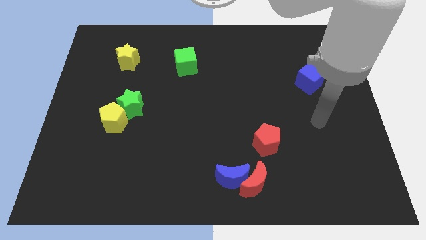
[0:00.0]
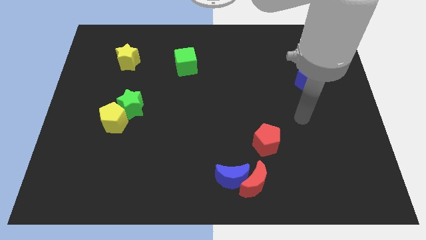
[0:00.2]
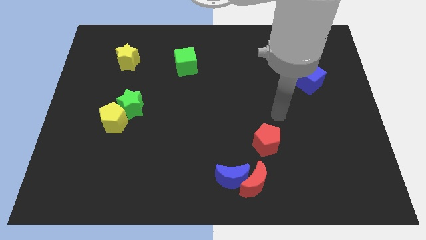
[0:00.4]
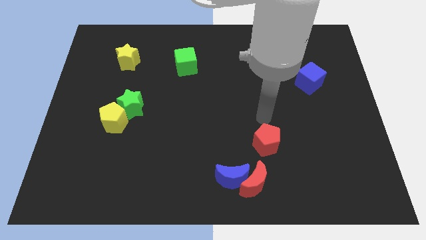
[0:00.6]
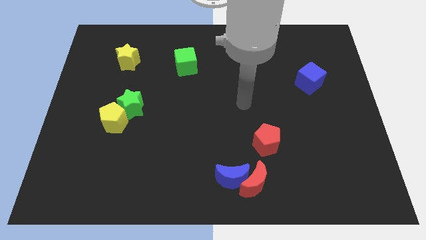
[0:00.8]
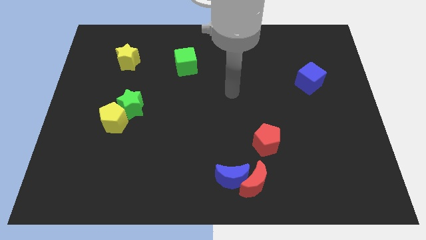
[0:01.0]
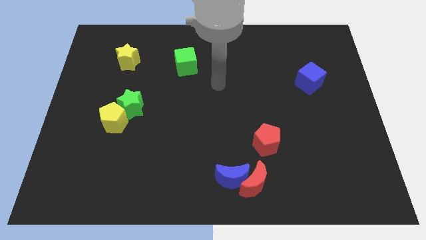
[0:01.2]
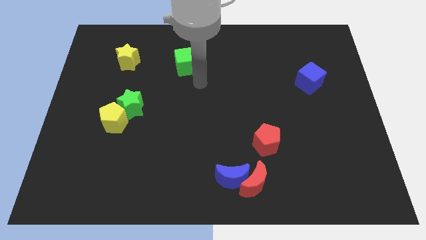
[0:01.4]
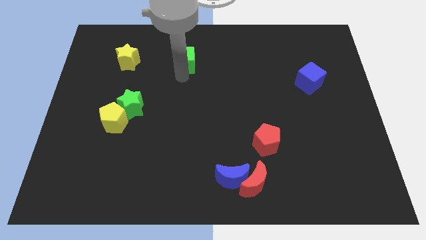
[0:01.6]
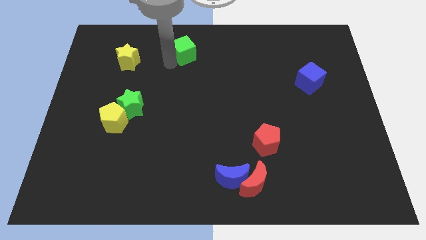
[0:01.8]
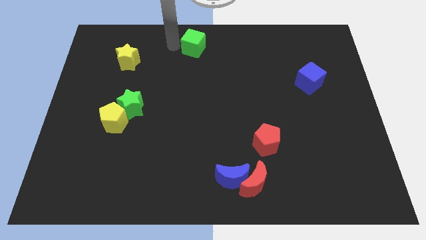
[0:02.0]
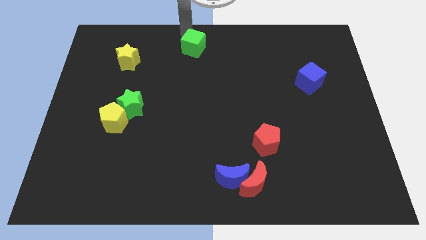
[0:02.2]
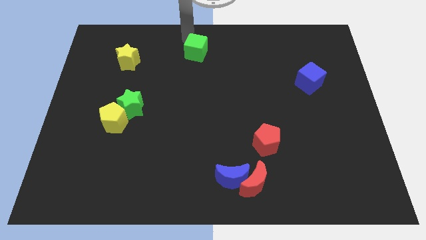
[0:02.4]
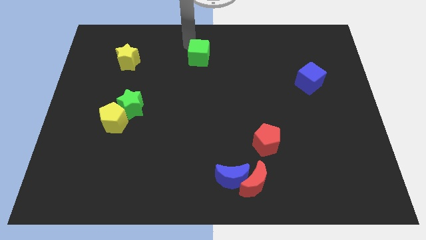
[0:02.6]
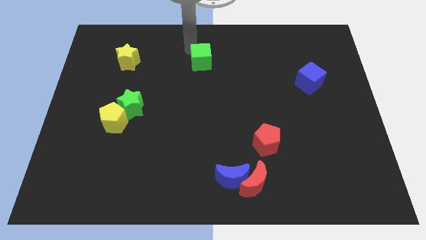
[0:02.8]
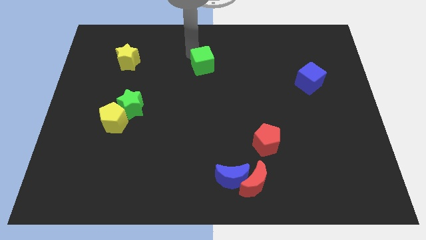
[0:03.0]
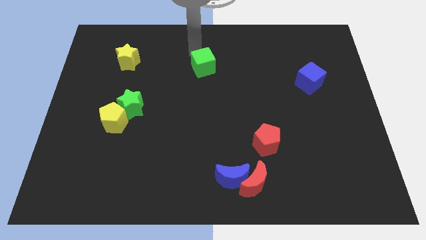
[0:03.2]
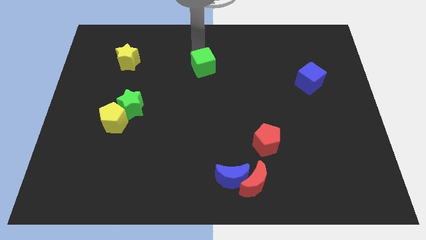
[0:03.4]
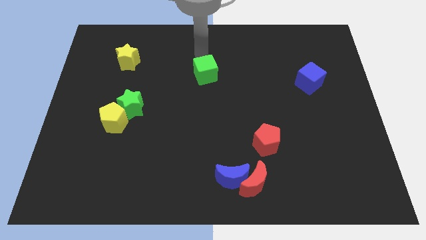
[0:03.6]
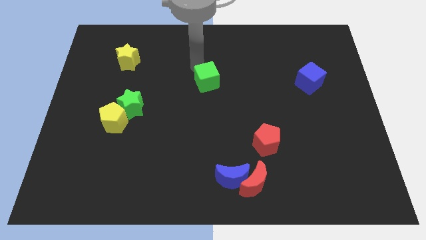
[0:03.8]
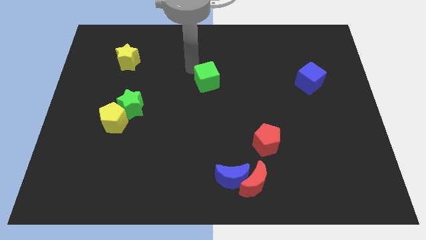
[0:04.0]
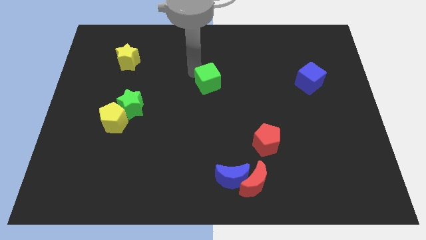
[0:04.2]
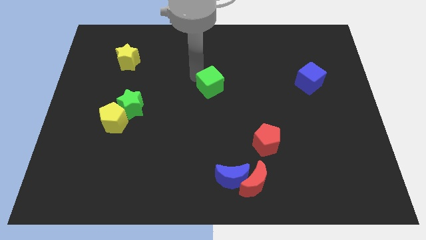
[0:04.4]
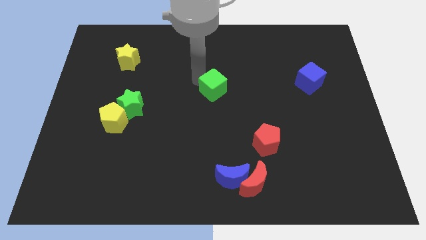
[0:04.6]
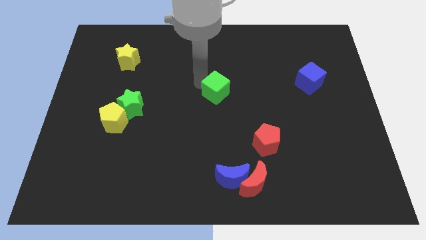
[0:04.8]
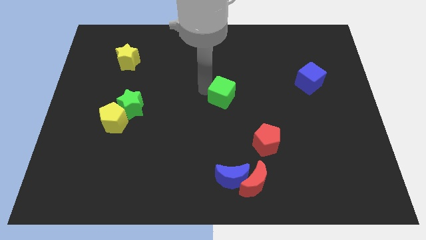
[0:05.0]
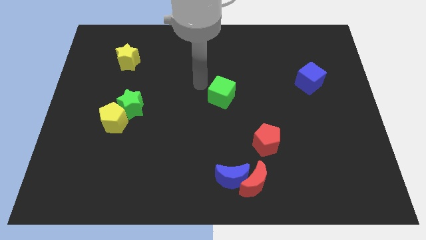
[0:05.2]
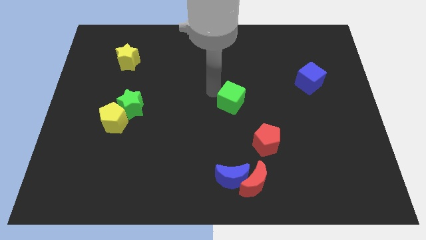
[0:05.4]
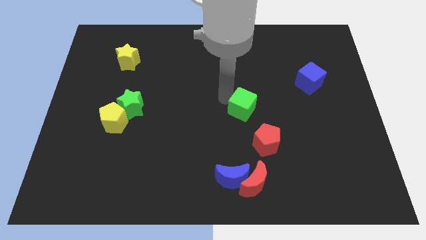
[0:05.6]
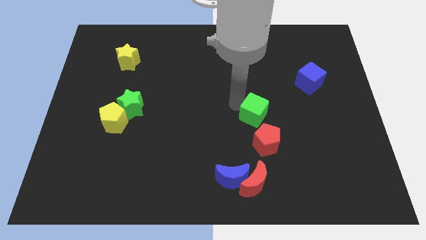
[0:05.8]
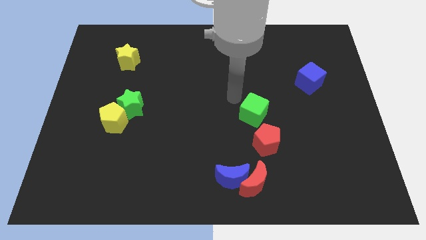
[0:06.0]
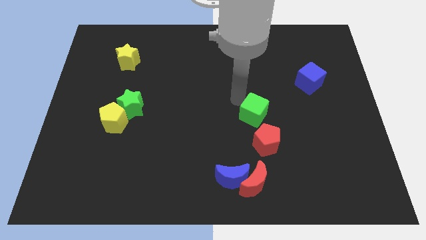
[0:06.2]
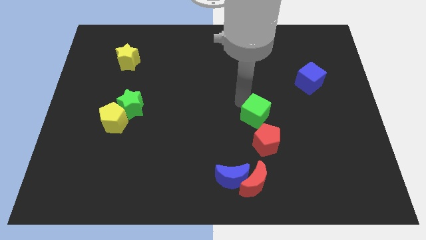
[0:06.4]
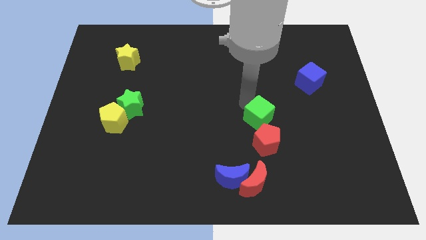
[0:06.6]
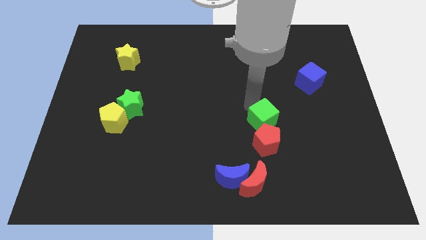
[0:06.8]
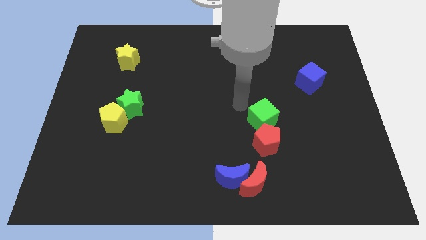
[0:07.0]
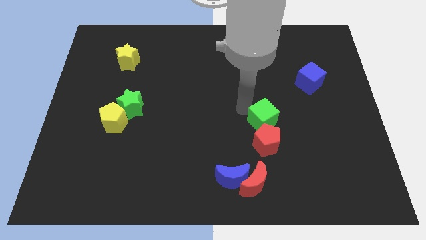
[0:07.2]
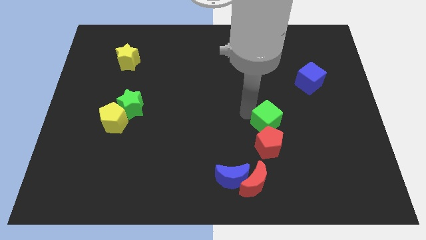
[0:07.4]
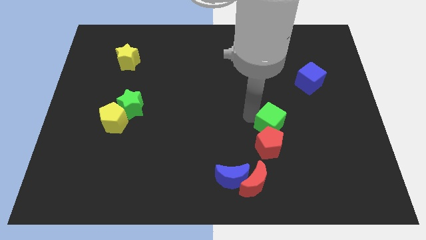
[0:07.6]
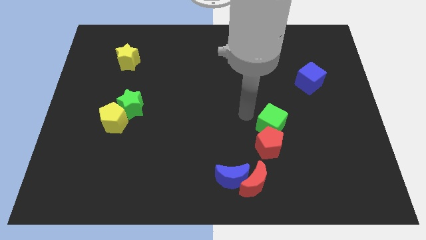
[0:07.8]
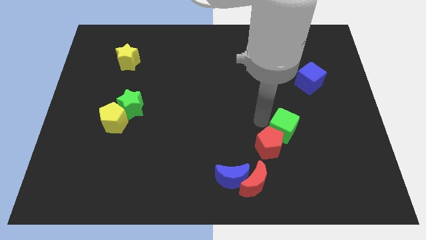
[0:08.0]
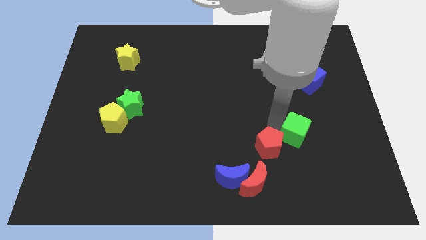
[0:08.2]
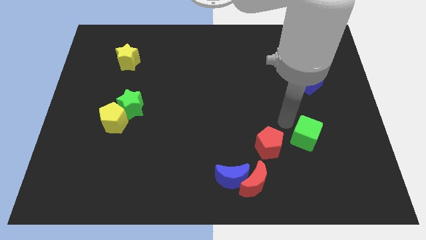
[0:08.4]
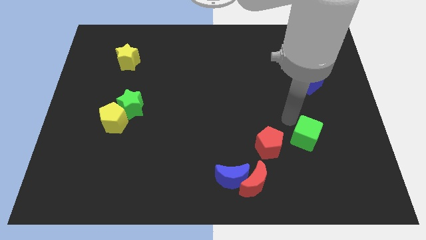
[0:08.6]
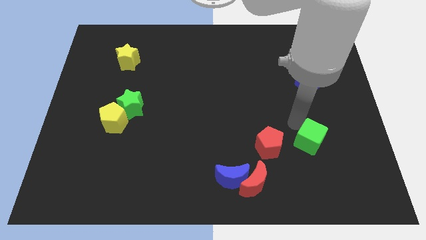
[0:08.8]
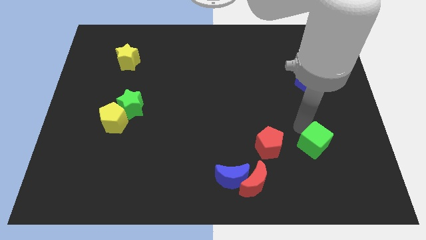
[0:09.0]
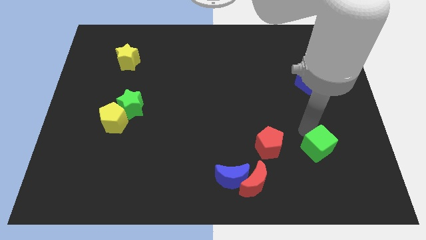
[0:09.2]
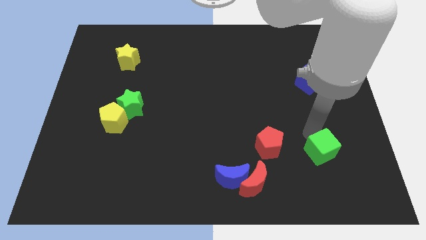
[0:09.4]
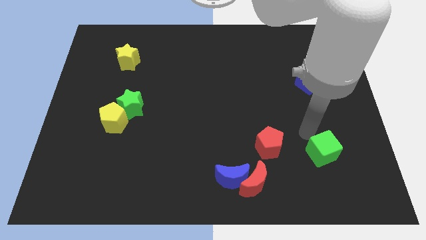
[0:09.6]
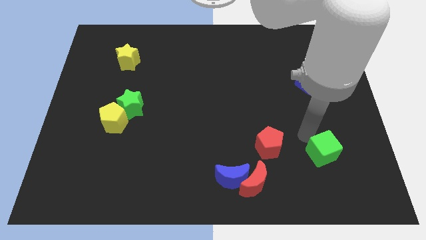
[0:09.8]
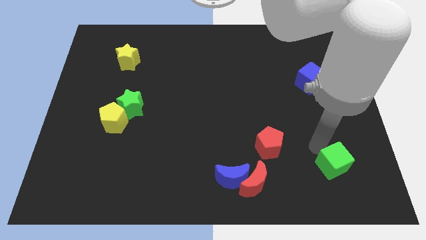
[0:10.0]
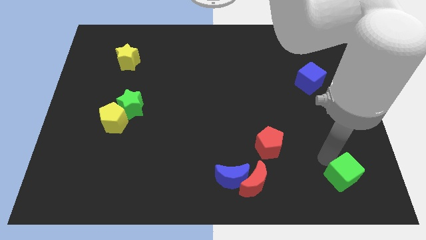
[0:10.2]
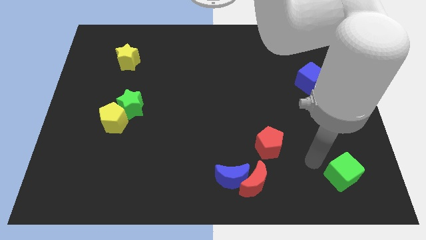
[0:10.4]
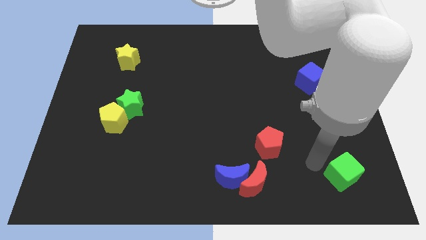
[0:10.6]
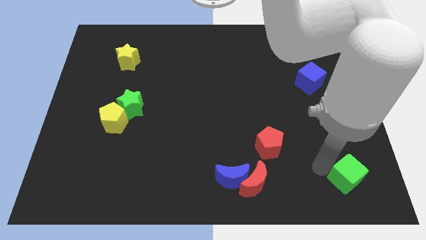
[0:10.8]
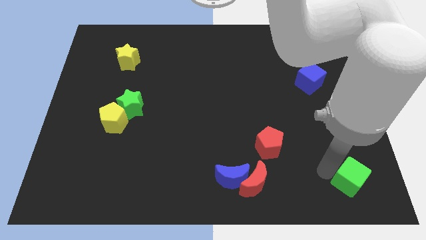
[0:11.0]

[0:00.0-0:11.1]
put the green cube to the bottom right corner
